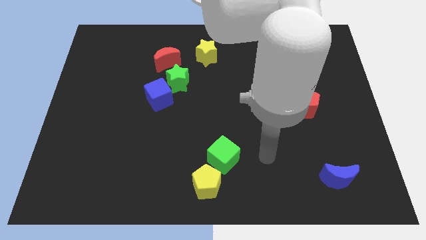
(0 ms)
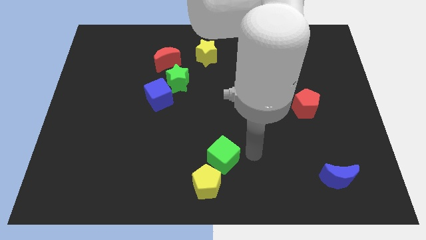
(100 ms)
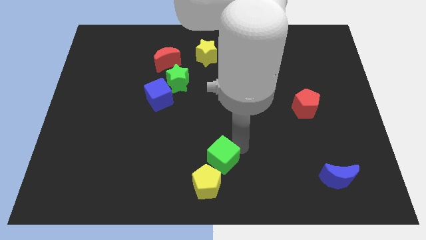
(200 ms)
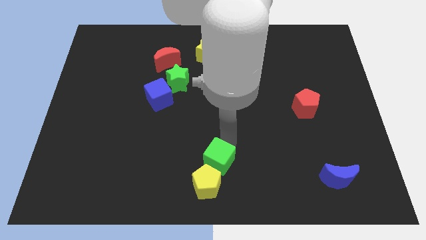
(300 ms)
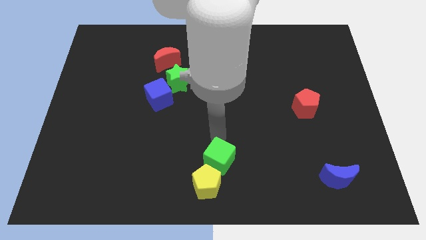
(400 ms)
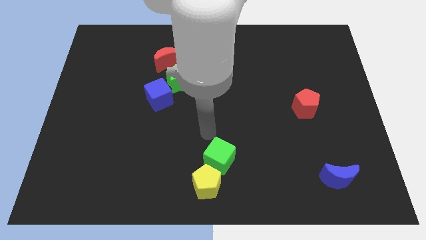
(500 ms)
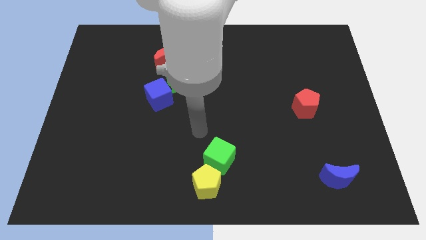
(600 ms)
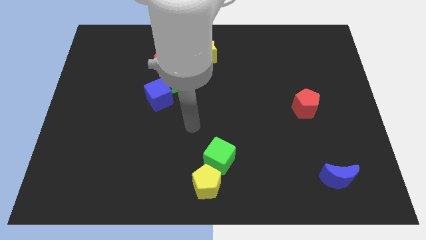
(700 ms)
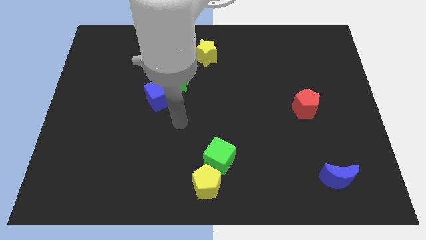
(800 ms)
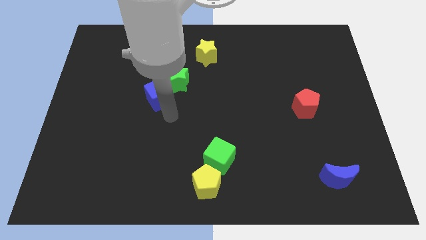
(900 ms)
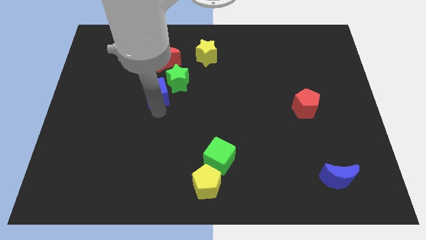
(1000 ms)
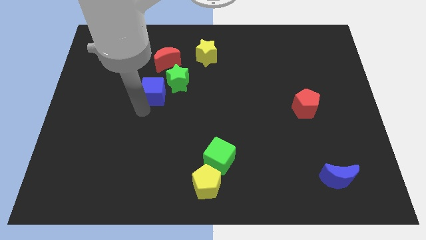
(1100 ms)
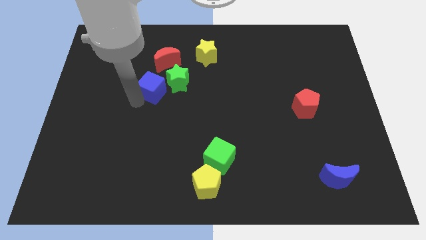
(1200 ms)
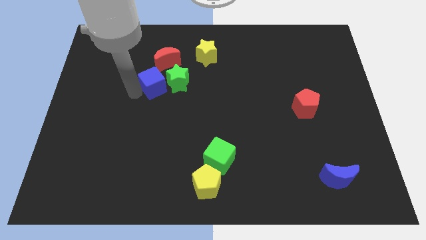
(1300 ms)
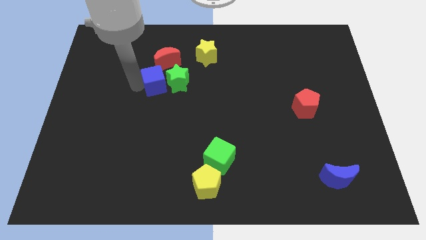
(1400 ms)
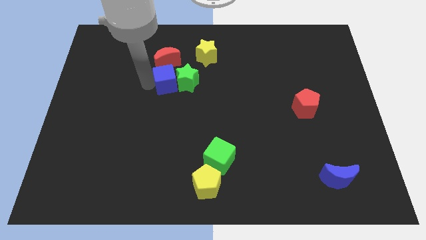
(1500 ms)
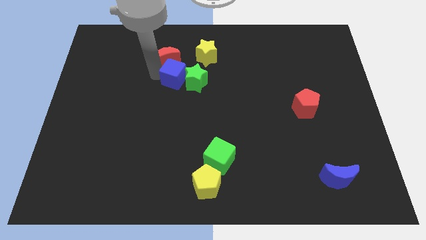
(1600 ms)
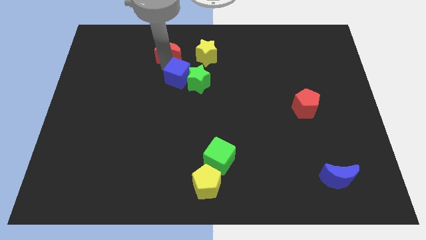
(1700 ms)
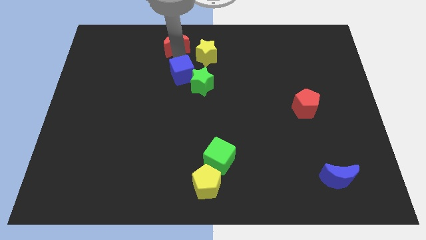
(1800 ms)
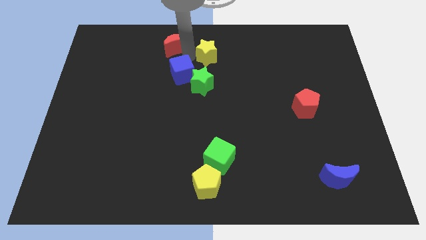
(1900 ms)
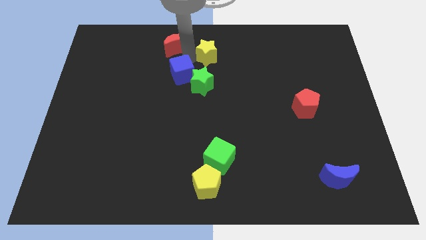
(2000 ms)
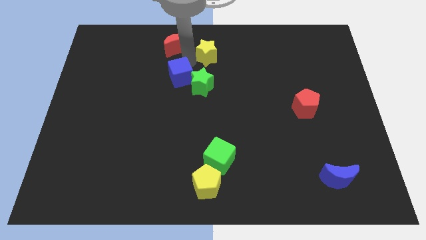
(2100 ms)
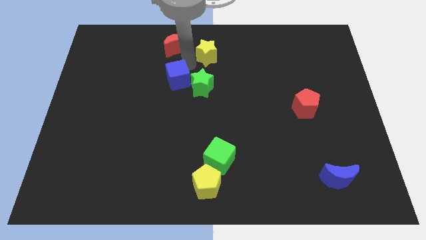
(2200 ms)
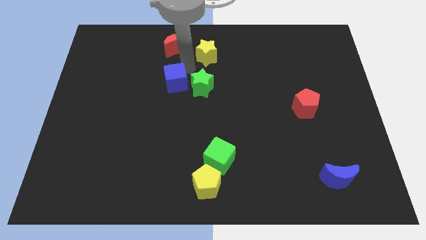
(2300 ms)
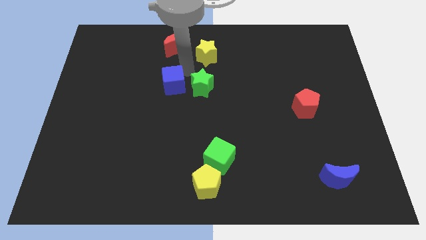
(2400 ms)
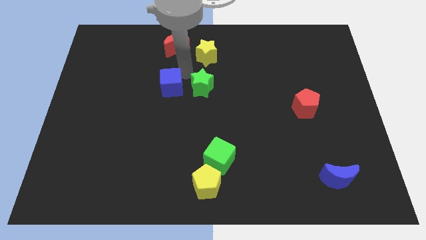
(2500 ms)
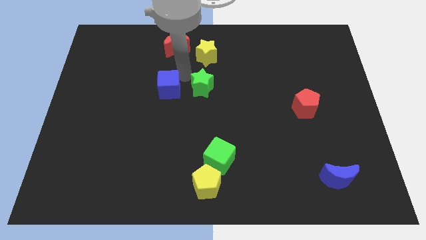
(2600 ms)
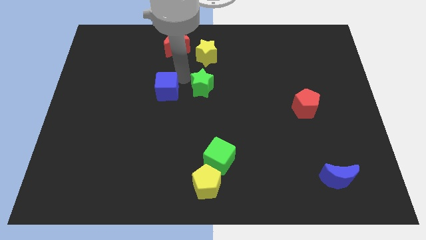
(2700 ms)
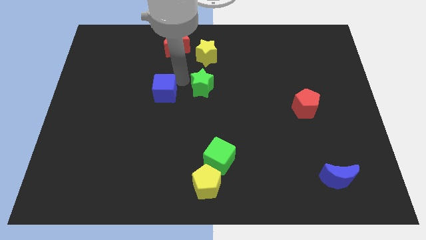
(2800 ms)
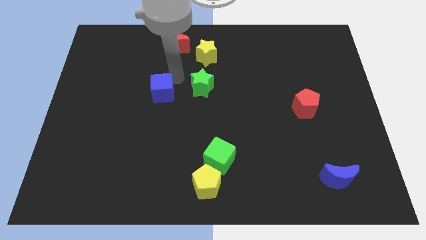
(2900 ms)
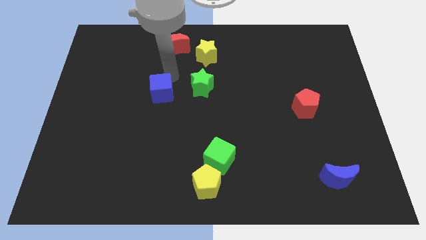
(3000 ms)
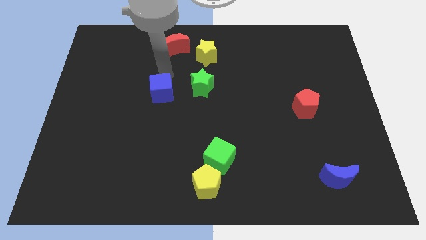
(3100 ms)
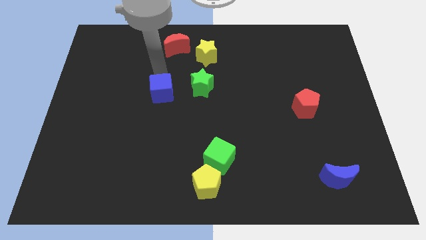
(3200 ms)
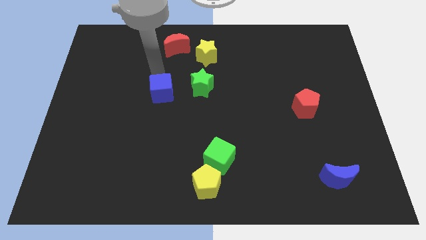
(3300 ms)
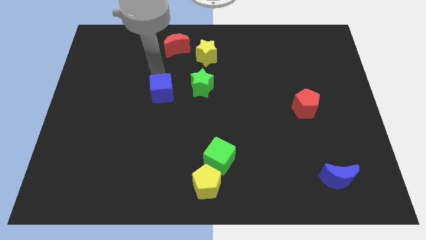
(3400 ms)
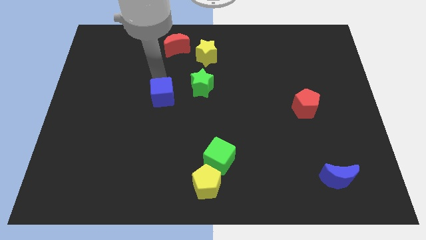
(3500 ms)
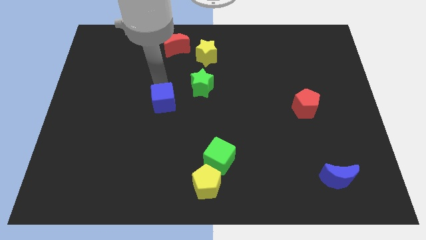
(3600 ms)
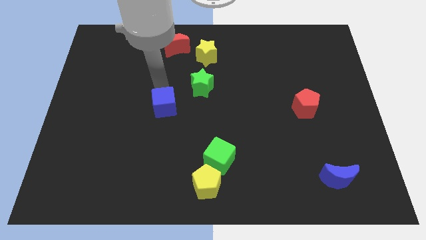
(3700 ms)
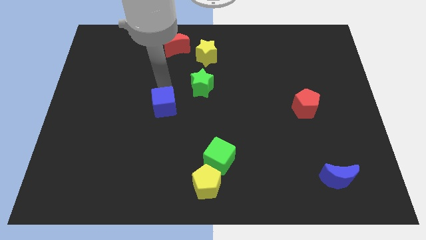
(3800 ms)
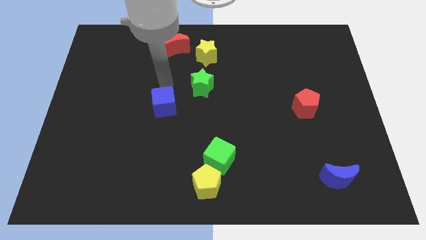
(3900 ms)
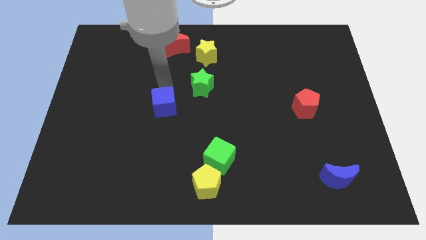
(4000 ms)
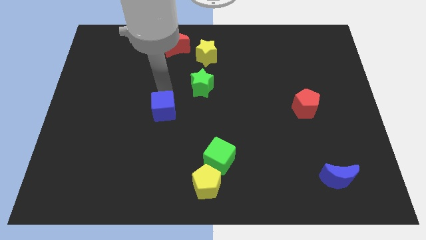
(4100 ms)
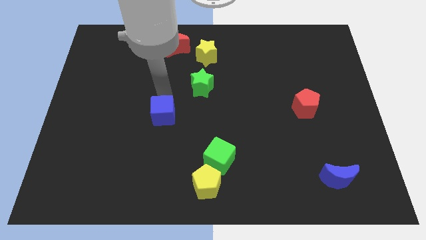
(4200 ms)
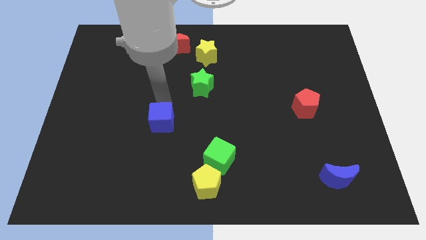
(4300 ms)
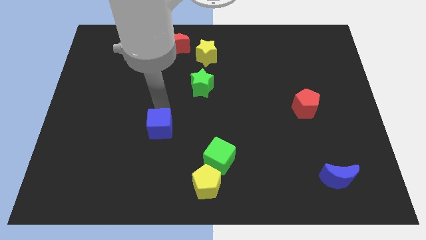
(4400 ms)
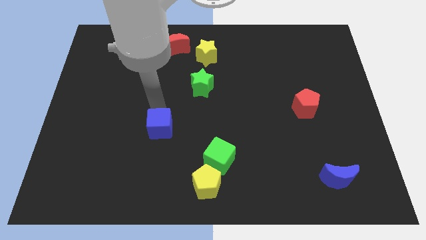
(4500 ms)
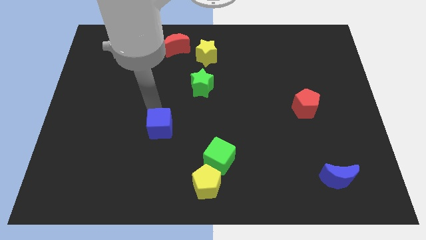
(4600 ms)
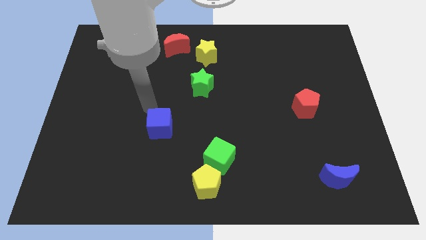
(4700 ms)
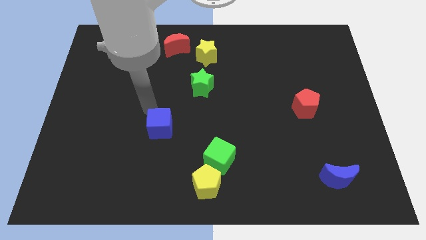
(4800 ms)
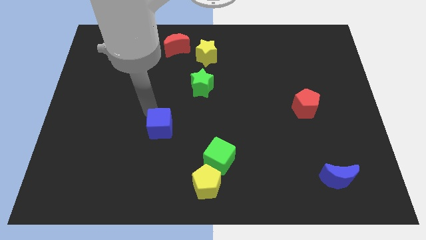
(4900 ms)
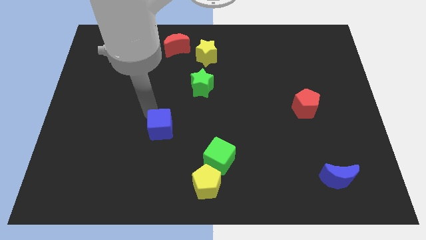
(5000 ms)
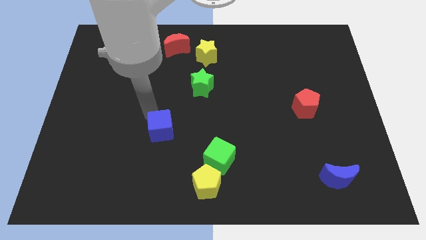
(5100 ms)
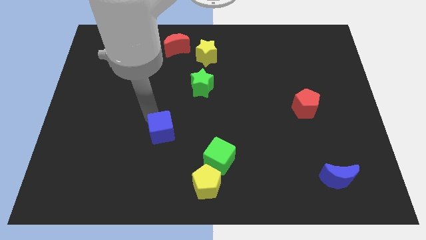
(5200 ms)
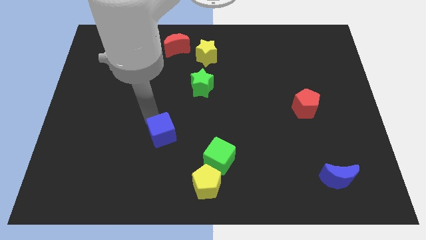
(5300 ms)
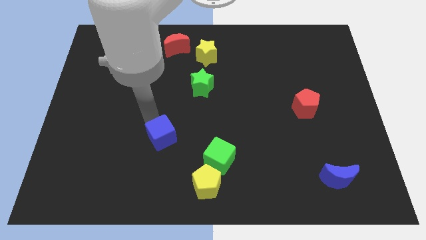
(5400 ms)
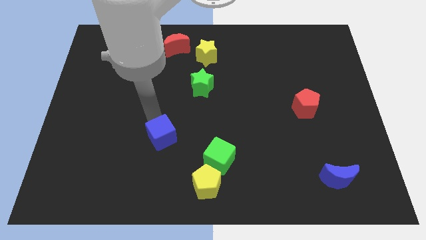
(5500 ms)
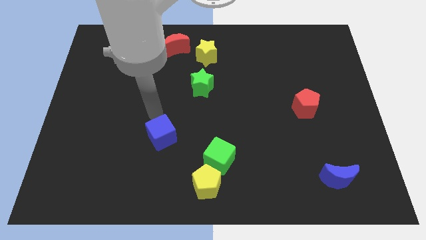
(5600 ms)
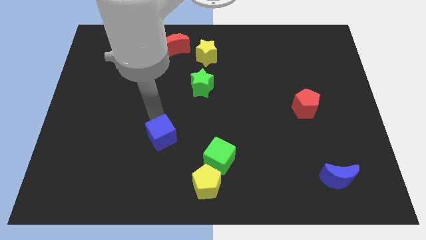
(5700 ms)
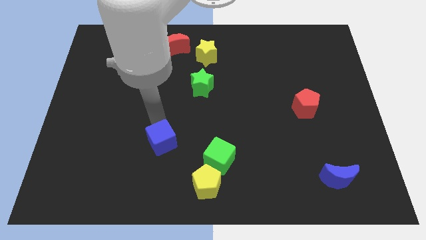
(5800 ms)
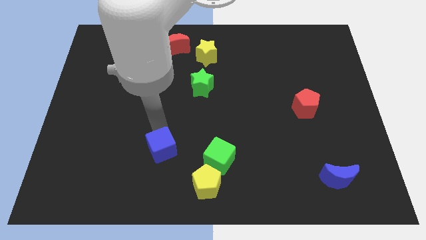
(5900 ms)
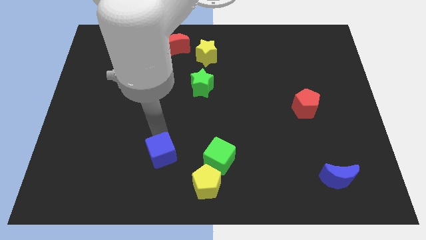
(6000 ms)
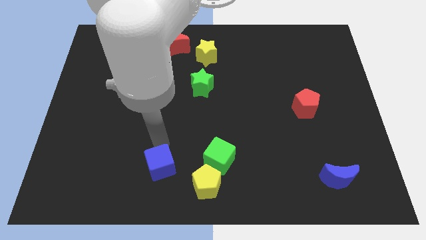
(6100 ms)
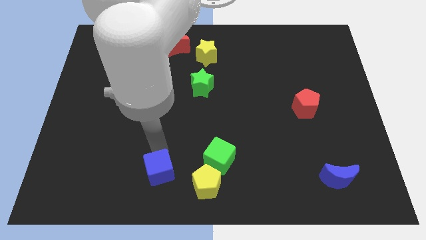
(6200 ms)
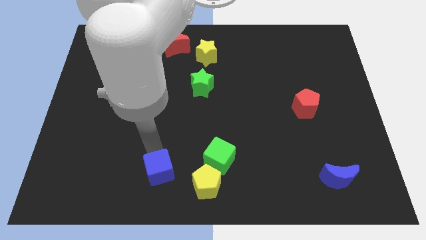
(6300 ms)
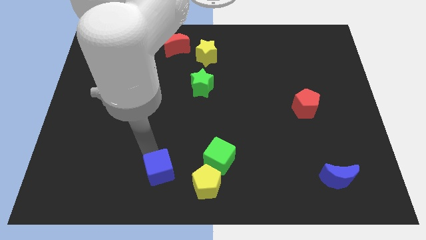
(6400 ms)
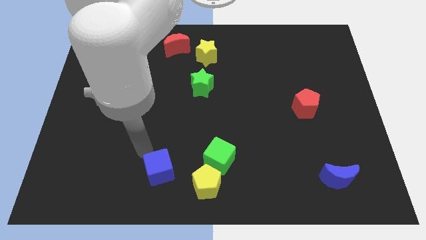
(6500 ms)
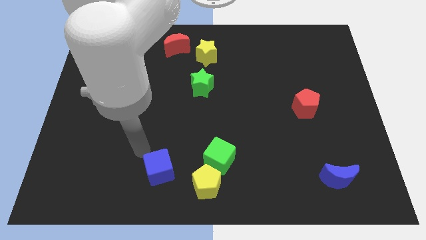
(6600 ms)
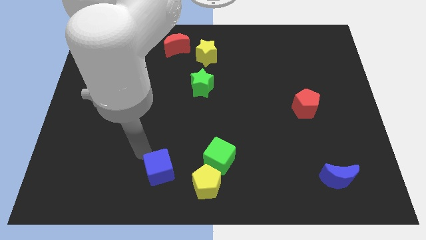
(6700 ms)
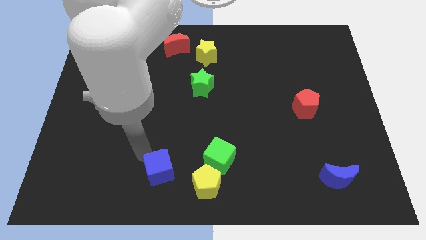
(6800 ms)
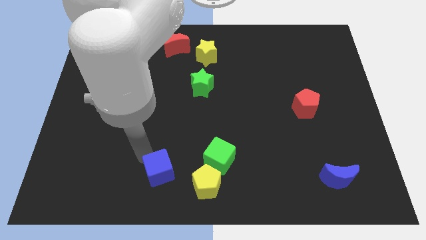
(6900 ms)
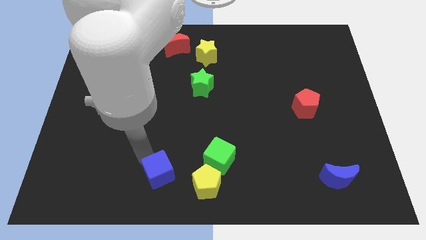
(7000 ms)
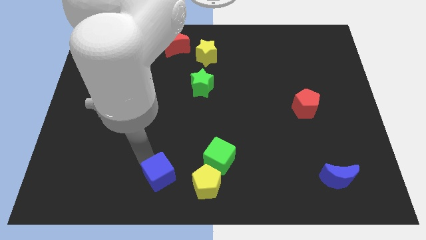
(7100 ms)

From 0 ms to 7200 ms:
push the blue cube to the bottom side
